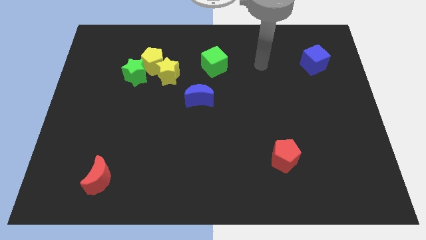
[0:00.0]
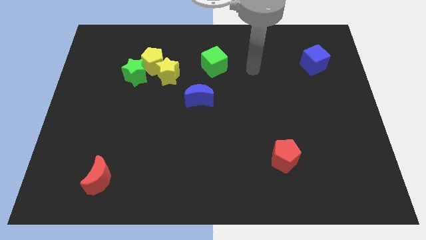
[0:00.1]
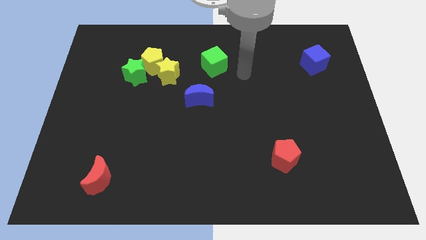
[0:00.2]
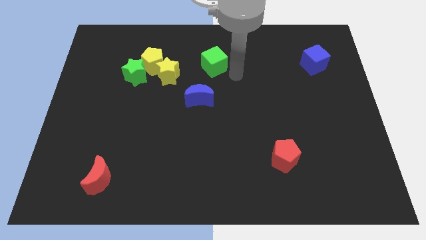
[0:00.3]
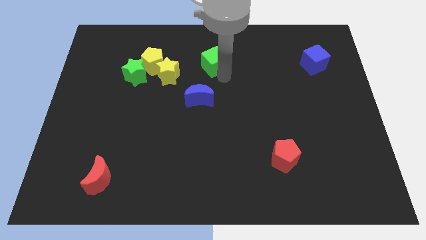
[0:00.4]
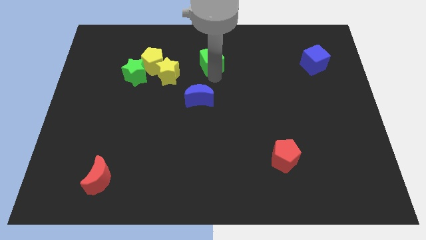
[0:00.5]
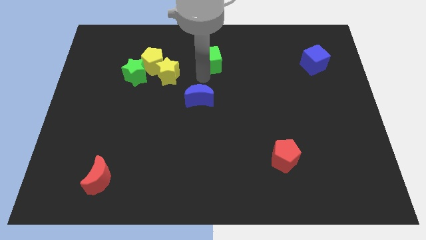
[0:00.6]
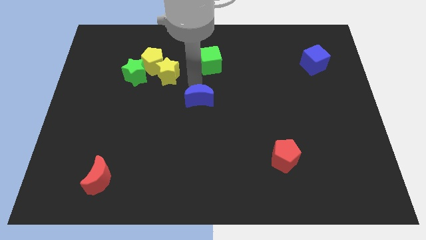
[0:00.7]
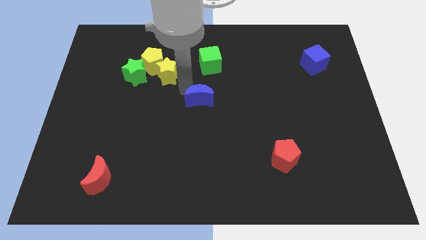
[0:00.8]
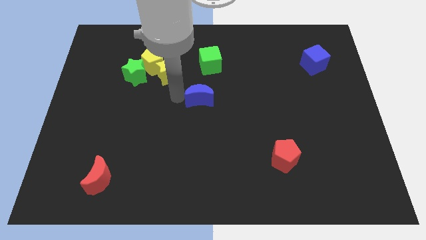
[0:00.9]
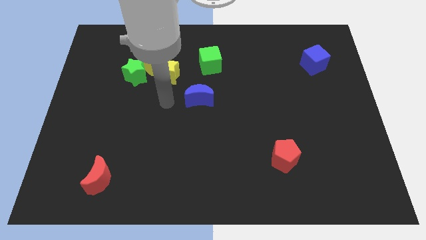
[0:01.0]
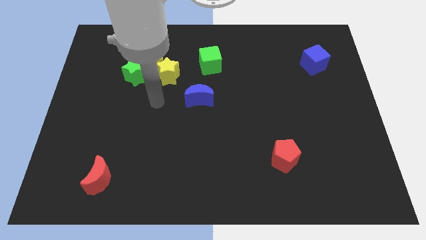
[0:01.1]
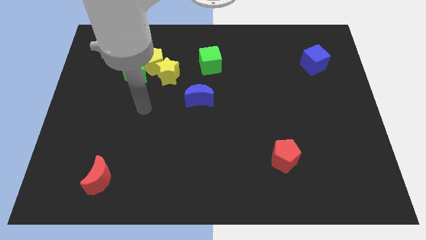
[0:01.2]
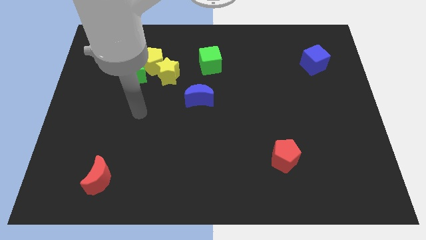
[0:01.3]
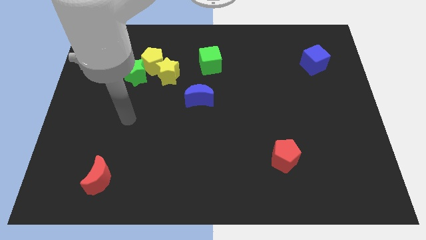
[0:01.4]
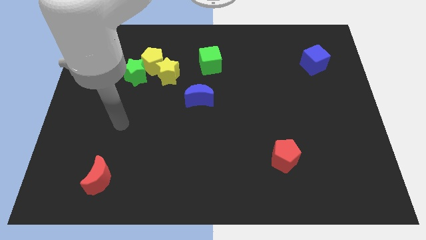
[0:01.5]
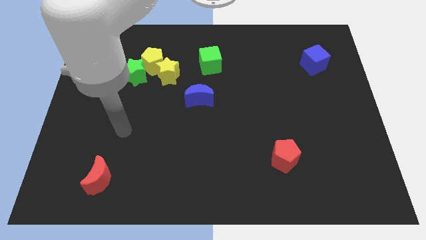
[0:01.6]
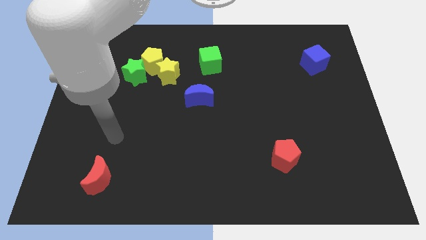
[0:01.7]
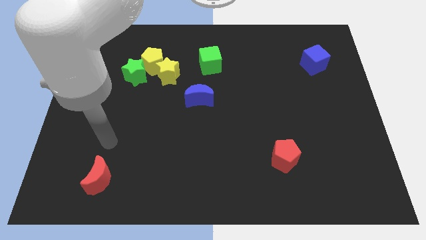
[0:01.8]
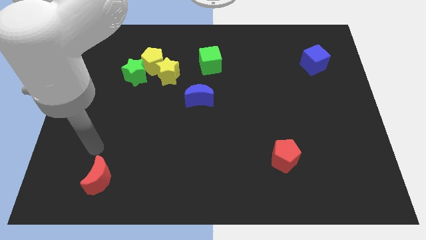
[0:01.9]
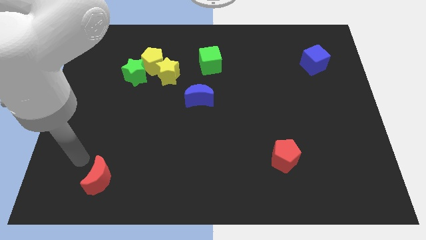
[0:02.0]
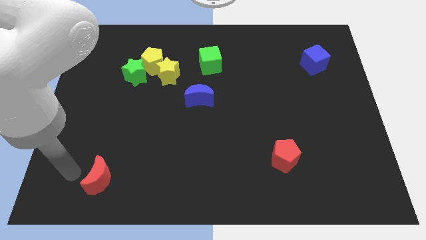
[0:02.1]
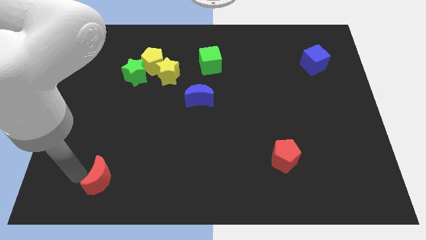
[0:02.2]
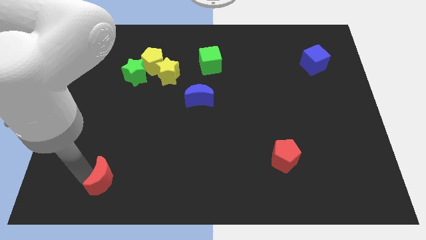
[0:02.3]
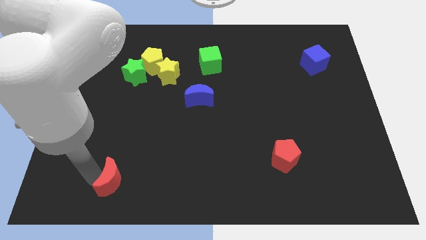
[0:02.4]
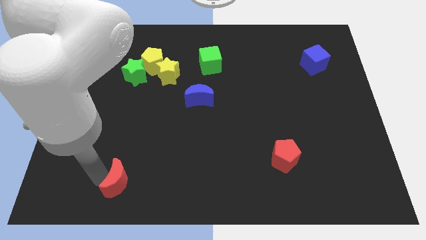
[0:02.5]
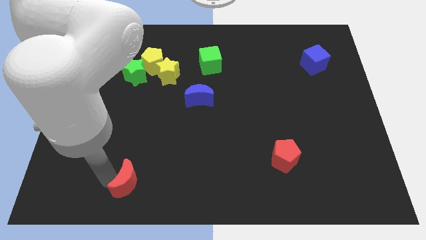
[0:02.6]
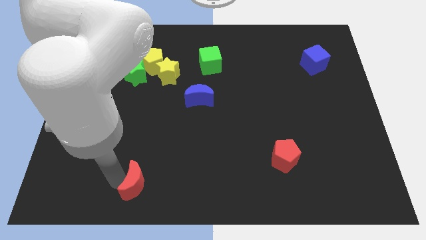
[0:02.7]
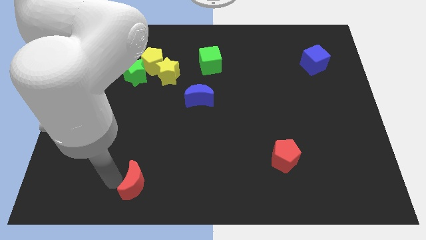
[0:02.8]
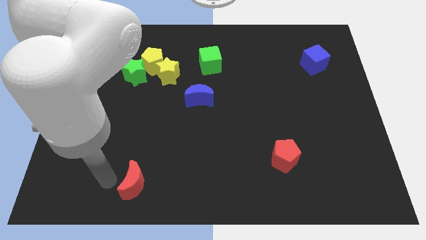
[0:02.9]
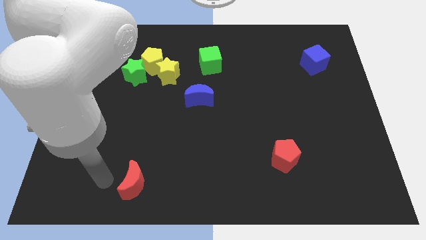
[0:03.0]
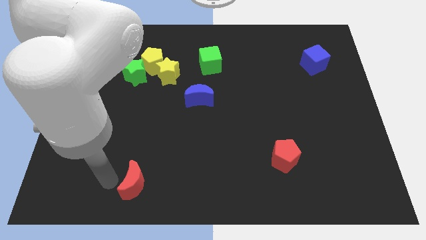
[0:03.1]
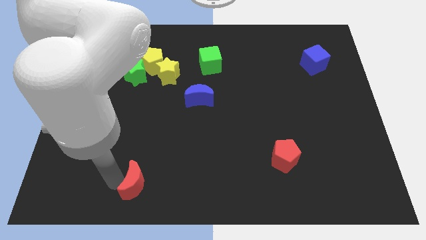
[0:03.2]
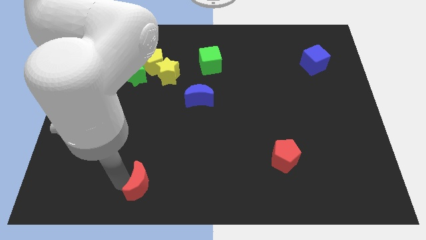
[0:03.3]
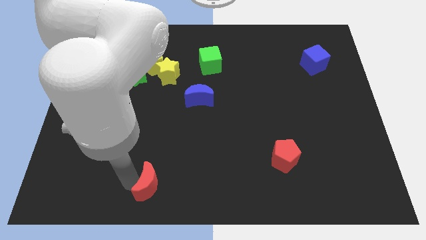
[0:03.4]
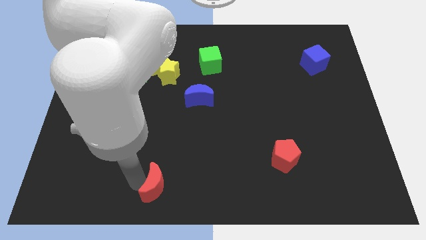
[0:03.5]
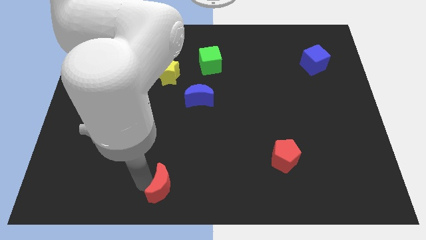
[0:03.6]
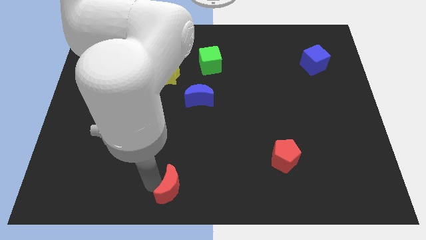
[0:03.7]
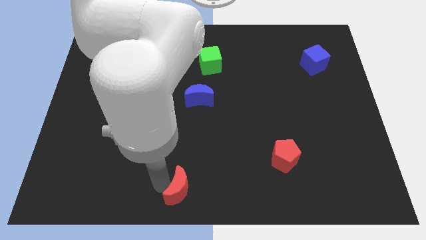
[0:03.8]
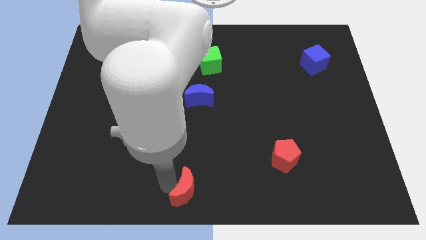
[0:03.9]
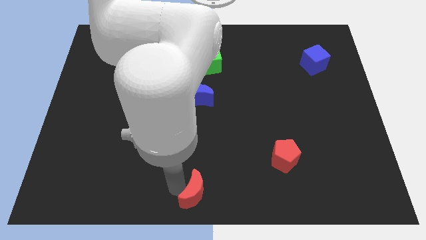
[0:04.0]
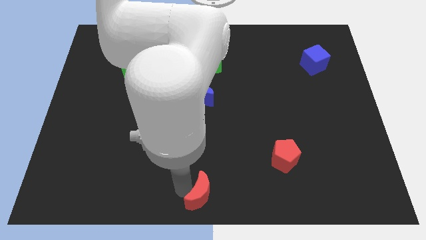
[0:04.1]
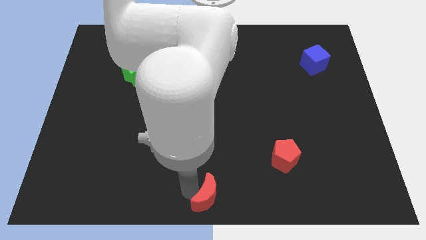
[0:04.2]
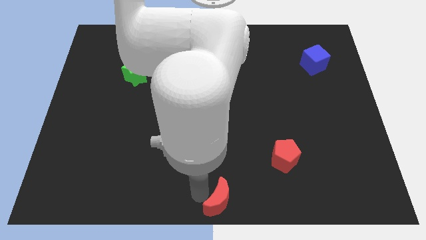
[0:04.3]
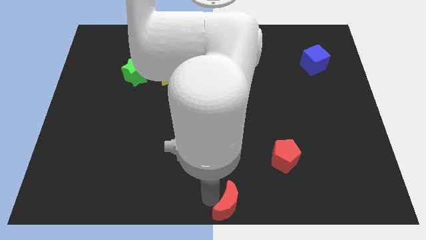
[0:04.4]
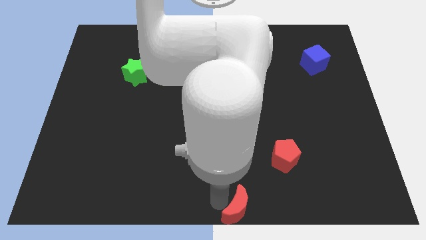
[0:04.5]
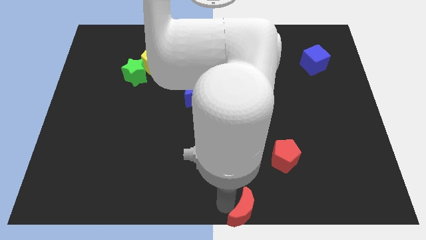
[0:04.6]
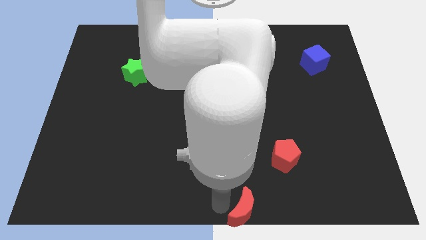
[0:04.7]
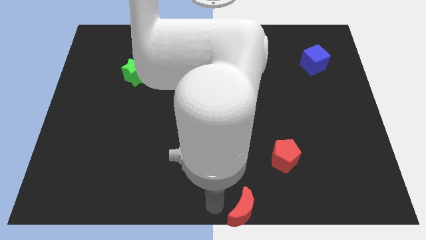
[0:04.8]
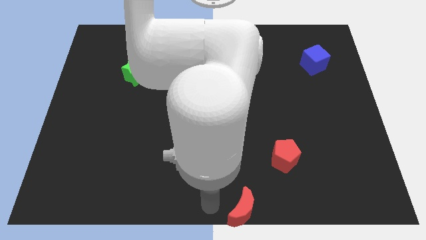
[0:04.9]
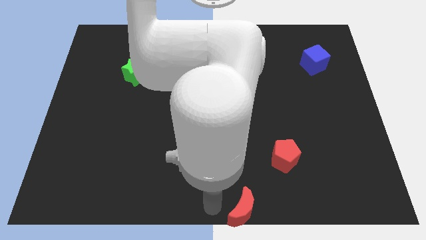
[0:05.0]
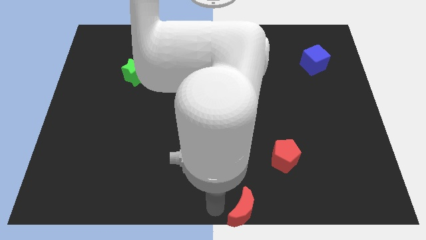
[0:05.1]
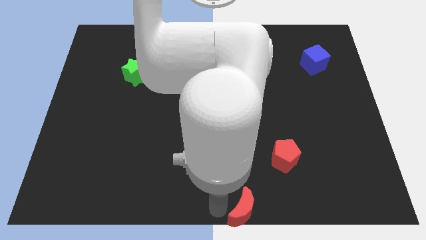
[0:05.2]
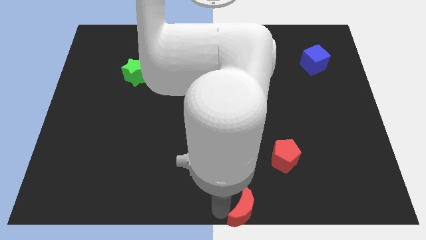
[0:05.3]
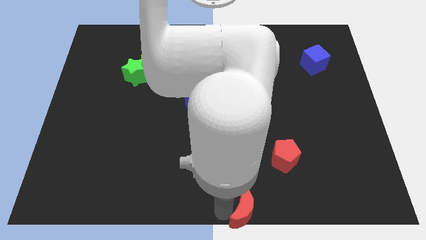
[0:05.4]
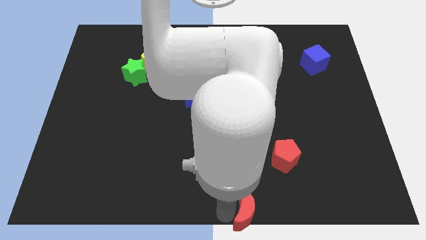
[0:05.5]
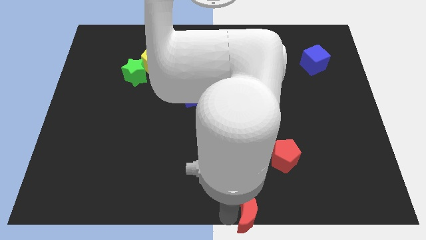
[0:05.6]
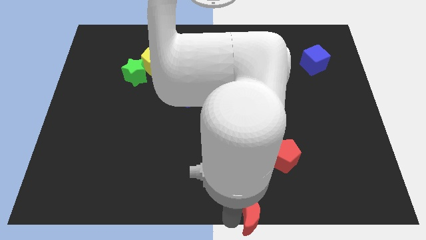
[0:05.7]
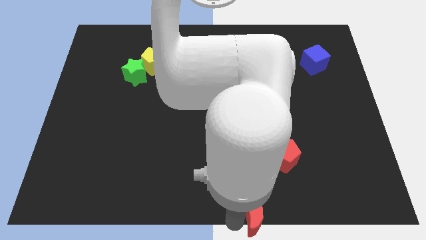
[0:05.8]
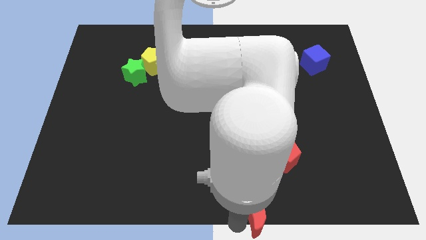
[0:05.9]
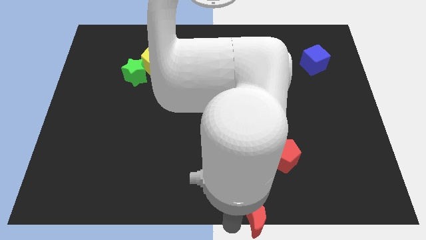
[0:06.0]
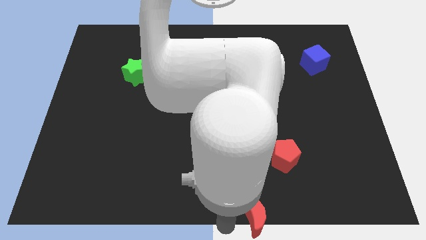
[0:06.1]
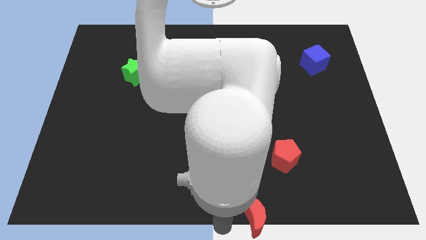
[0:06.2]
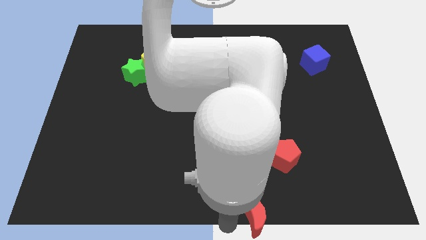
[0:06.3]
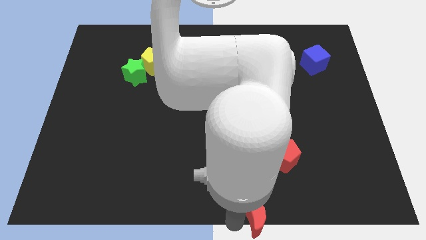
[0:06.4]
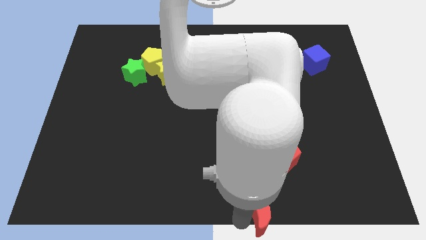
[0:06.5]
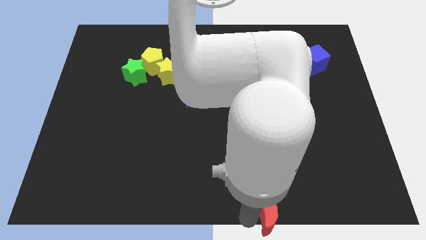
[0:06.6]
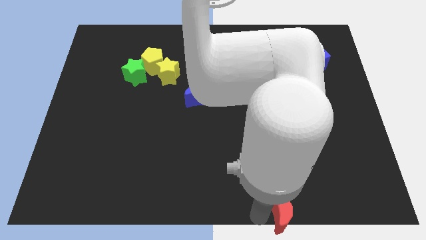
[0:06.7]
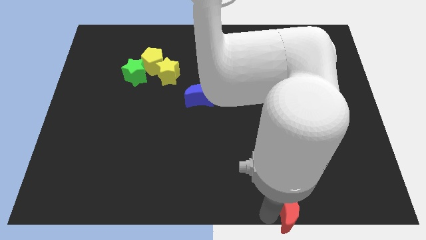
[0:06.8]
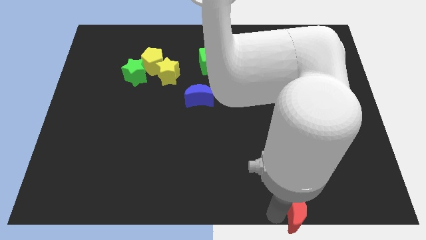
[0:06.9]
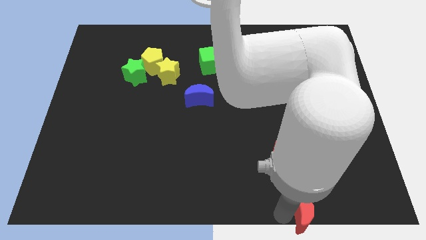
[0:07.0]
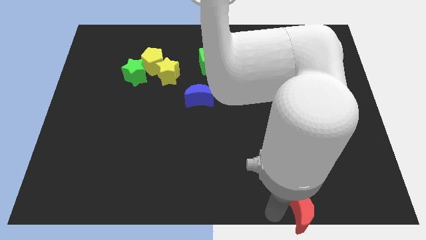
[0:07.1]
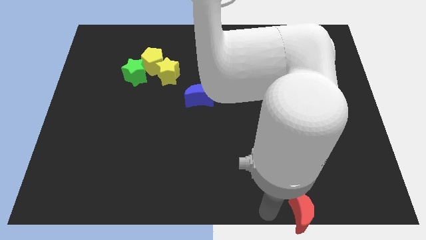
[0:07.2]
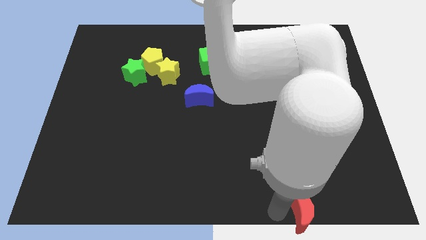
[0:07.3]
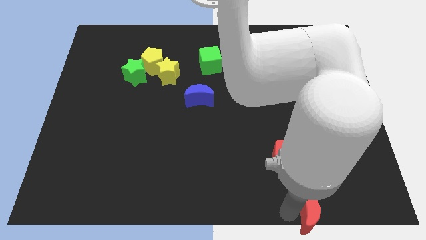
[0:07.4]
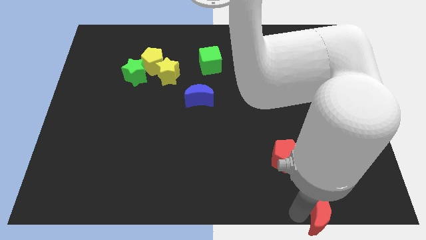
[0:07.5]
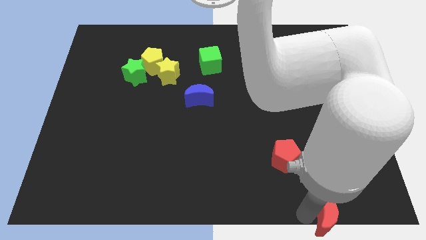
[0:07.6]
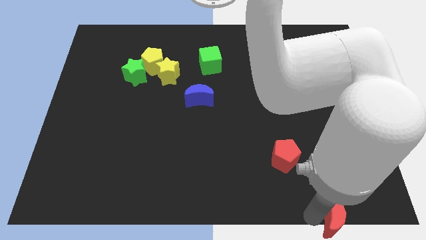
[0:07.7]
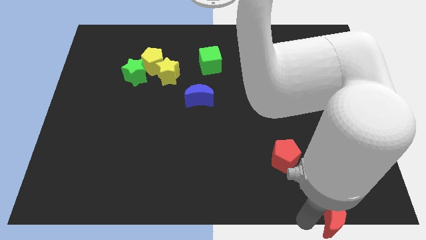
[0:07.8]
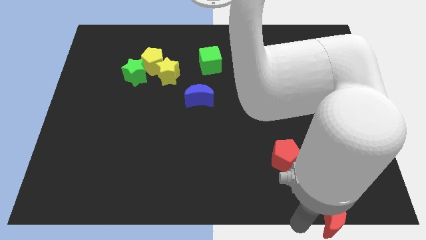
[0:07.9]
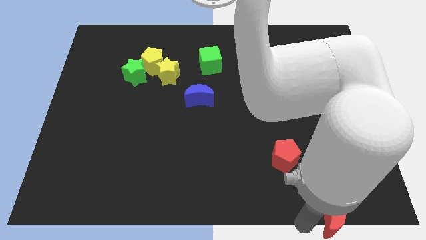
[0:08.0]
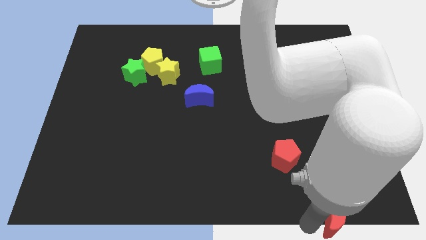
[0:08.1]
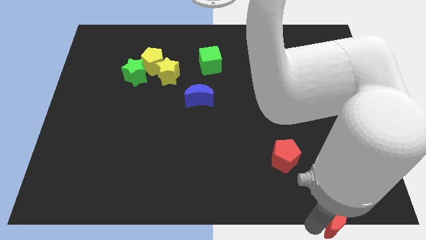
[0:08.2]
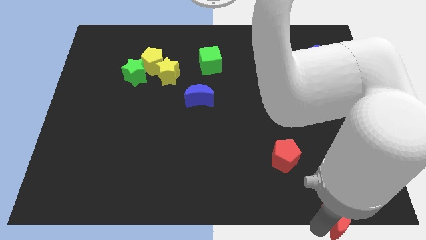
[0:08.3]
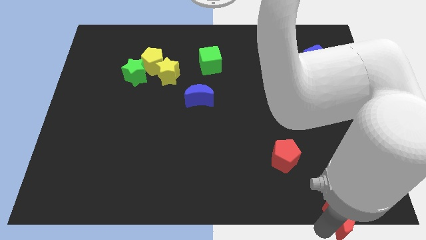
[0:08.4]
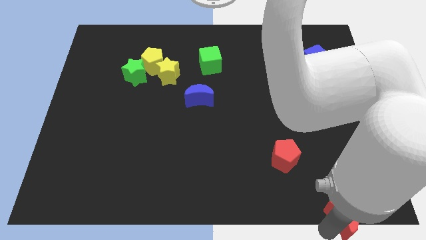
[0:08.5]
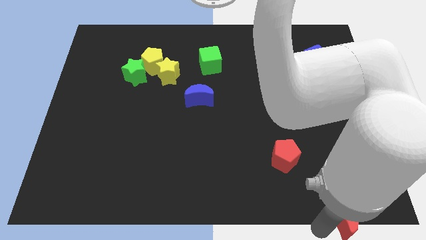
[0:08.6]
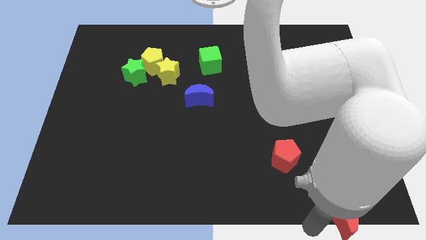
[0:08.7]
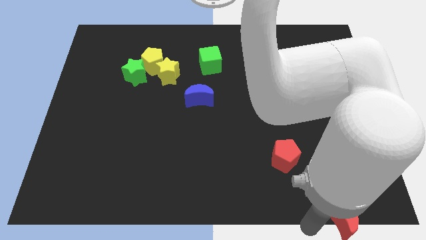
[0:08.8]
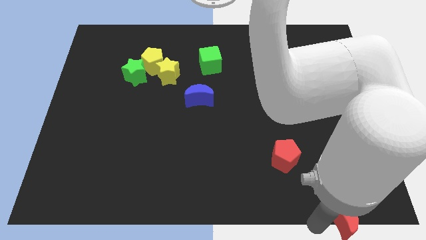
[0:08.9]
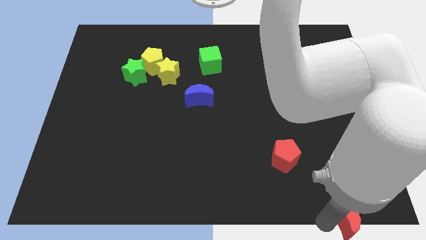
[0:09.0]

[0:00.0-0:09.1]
push the red moon to the bottom right
